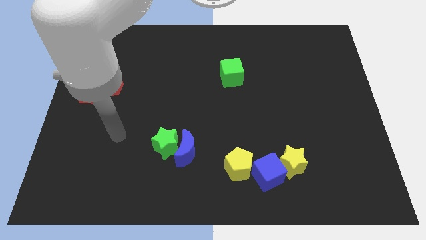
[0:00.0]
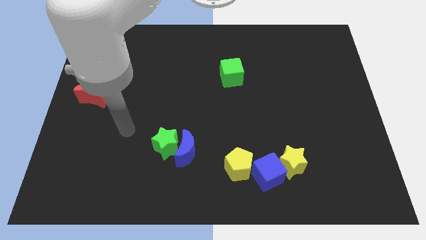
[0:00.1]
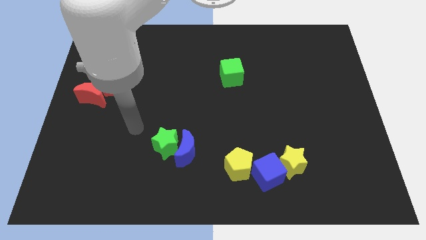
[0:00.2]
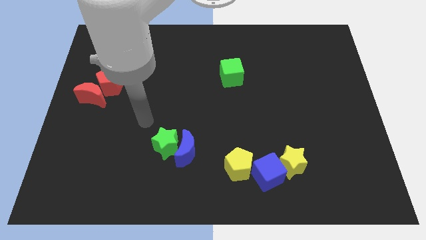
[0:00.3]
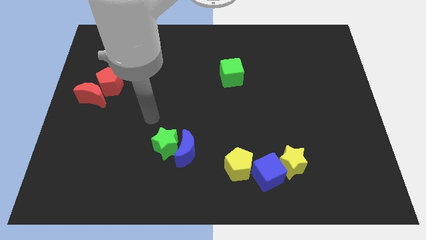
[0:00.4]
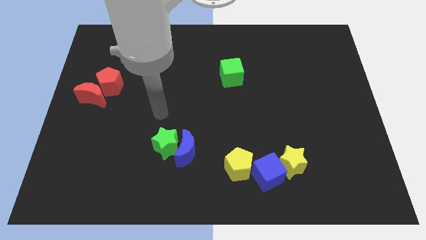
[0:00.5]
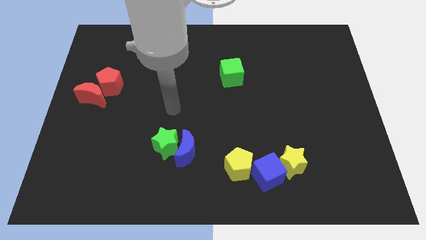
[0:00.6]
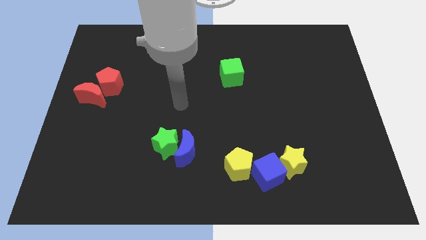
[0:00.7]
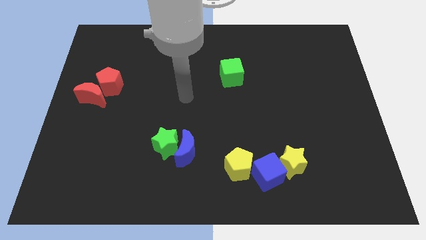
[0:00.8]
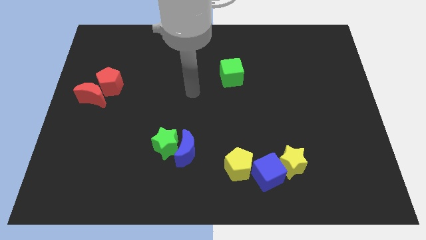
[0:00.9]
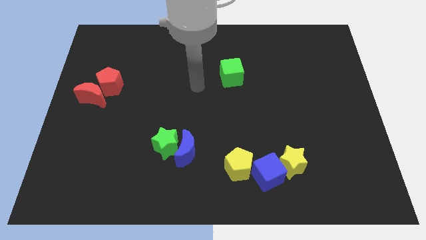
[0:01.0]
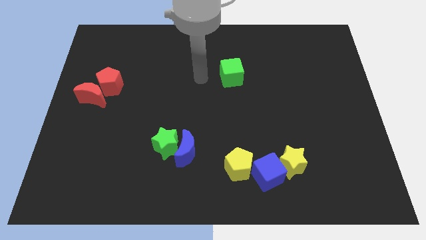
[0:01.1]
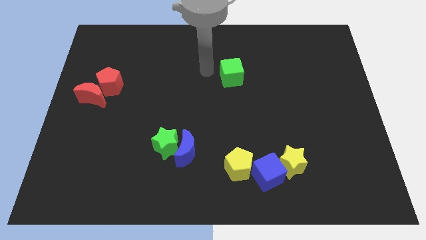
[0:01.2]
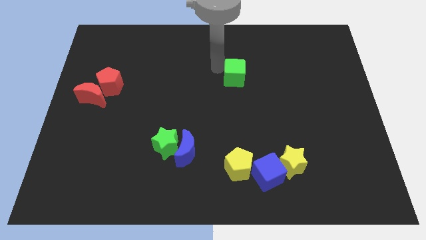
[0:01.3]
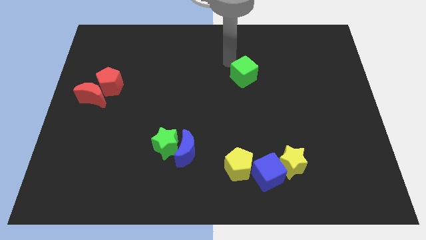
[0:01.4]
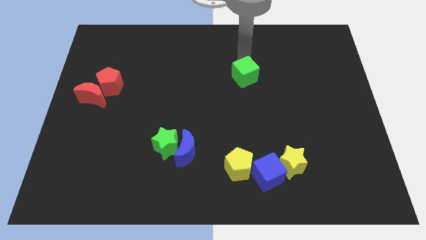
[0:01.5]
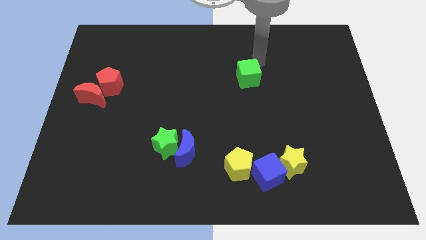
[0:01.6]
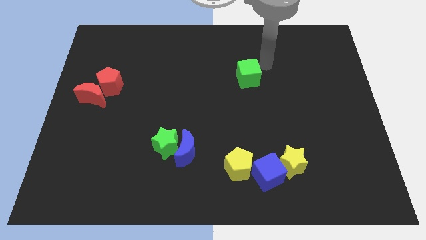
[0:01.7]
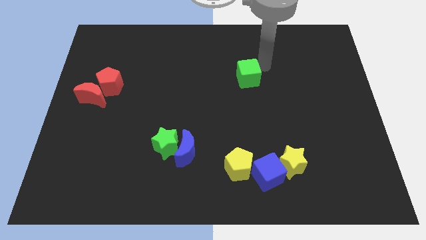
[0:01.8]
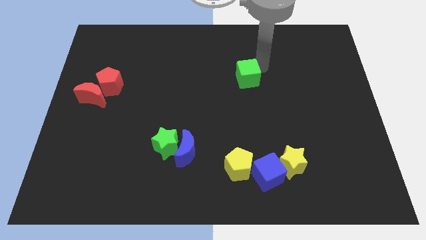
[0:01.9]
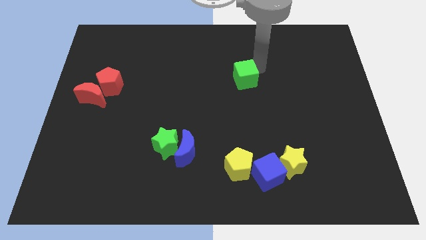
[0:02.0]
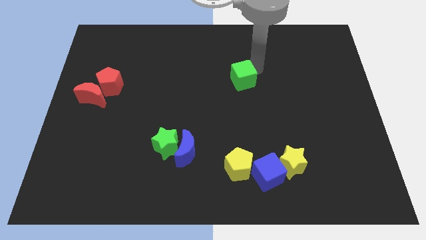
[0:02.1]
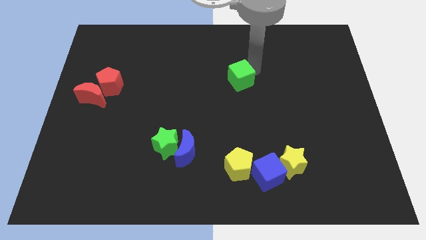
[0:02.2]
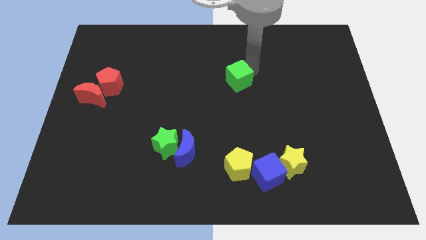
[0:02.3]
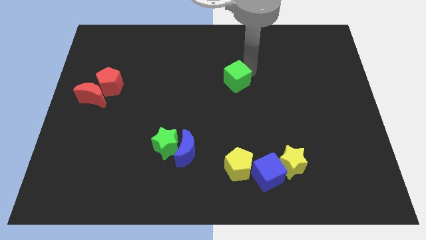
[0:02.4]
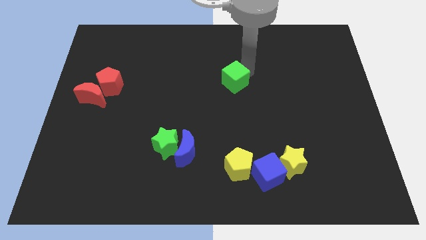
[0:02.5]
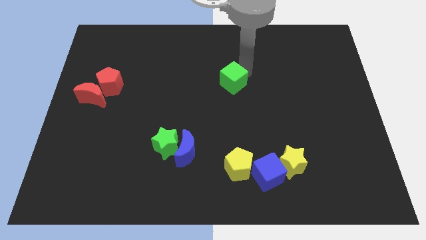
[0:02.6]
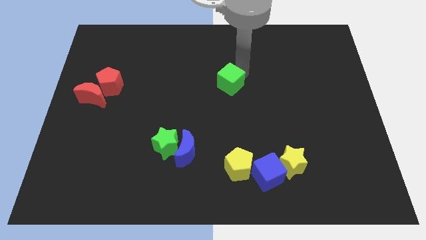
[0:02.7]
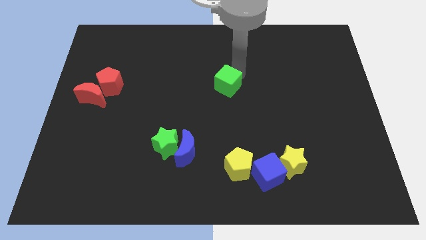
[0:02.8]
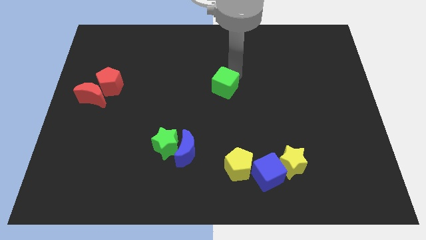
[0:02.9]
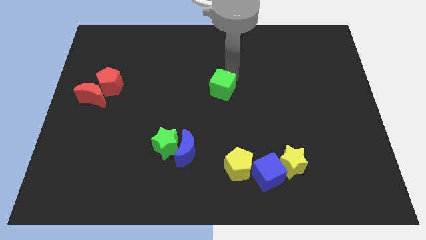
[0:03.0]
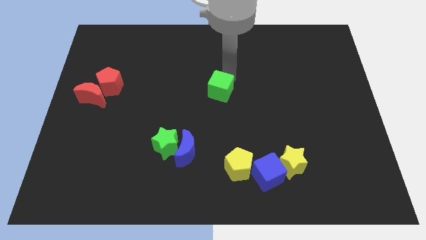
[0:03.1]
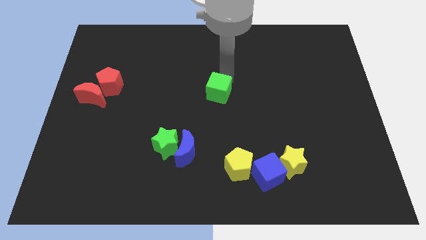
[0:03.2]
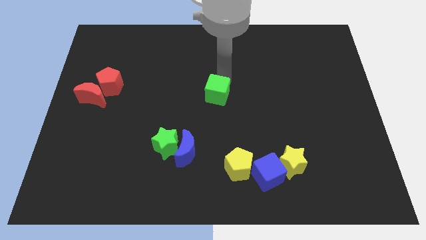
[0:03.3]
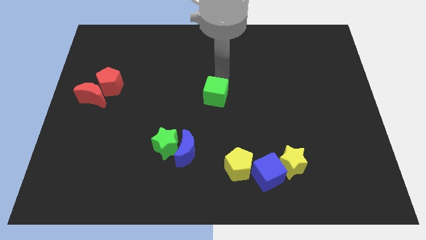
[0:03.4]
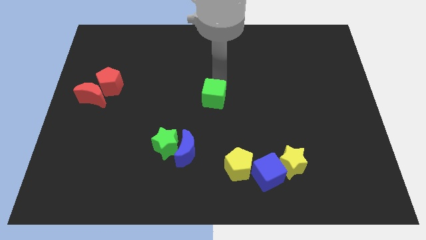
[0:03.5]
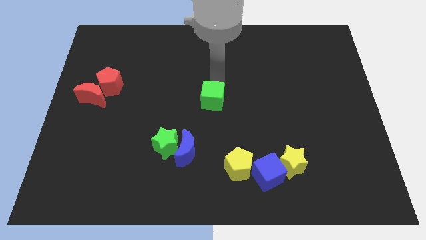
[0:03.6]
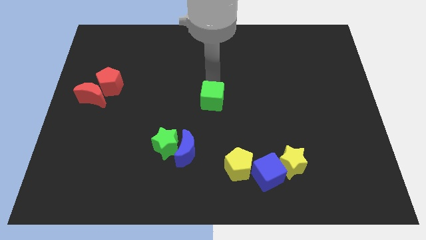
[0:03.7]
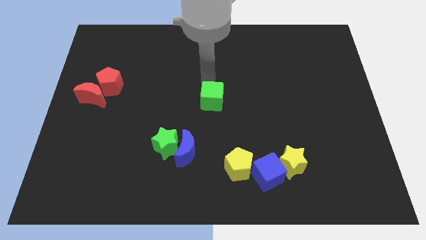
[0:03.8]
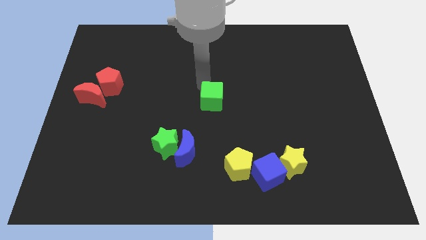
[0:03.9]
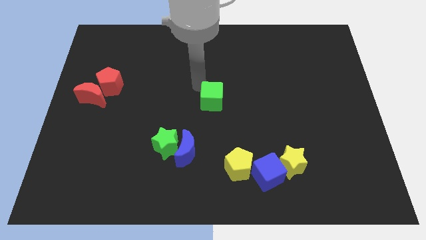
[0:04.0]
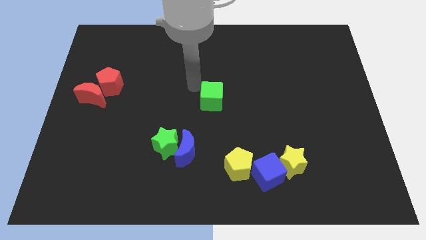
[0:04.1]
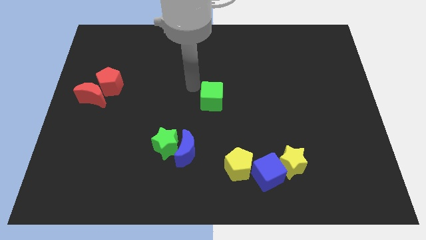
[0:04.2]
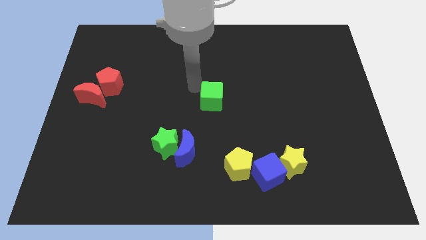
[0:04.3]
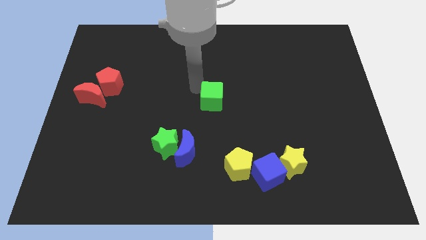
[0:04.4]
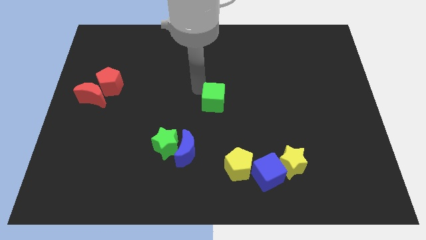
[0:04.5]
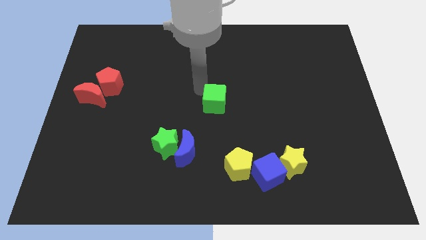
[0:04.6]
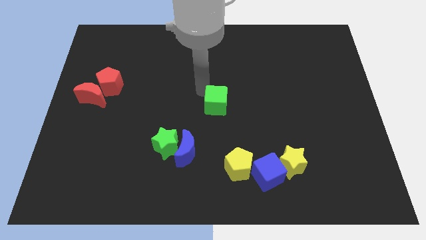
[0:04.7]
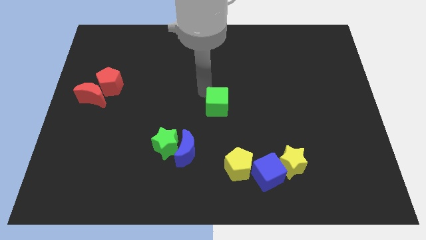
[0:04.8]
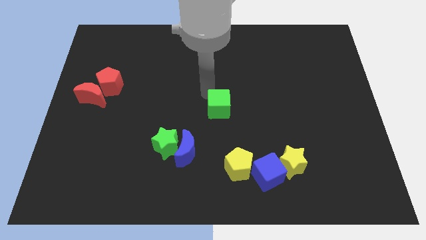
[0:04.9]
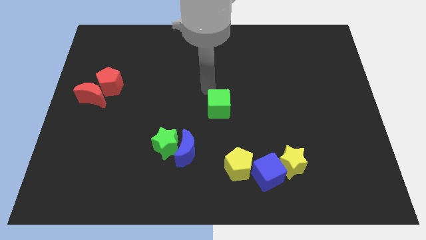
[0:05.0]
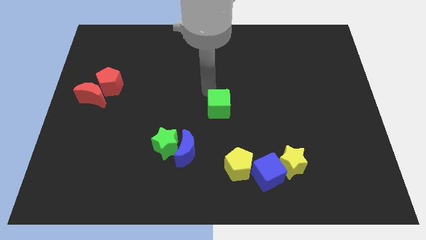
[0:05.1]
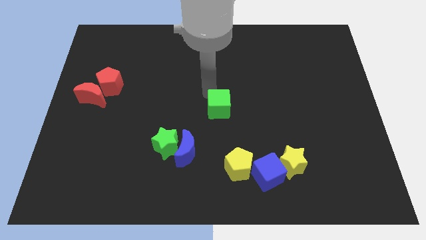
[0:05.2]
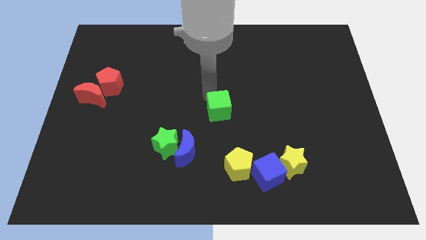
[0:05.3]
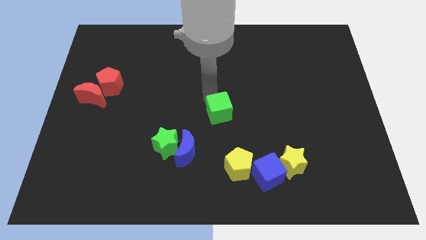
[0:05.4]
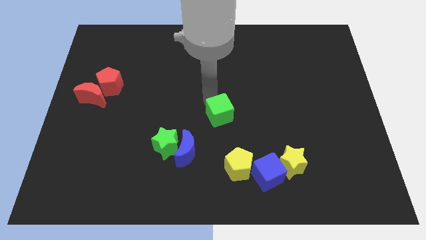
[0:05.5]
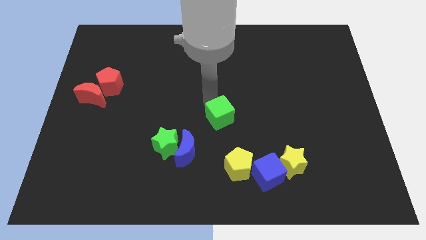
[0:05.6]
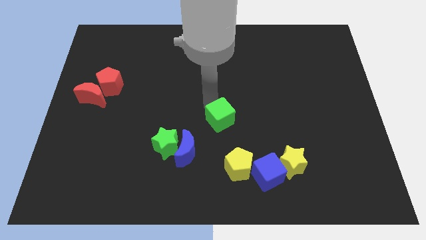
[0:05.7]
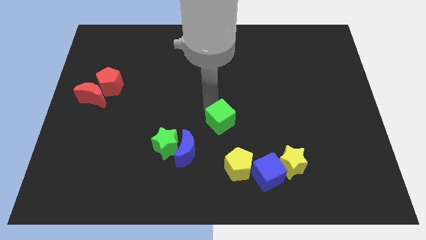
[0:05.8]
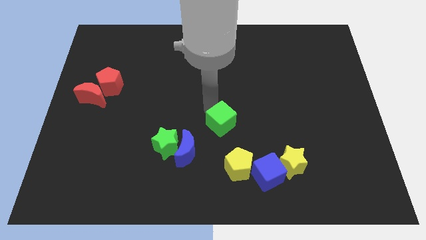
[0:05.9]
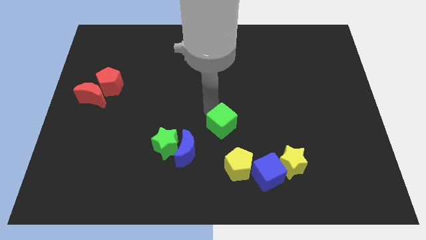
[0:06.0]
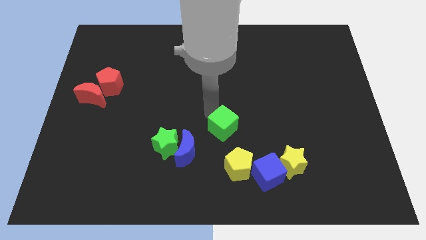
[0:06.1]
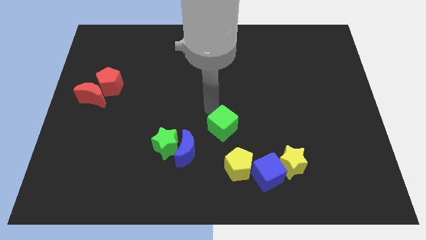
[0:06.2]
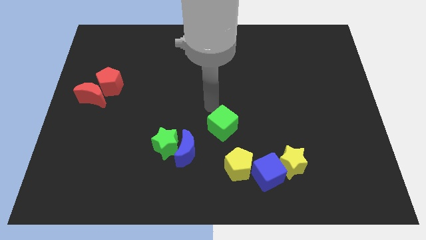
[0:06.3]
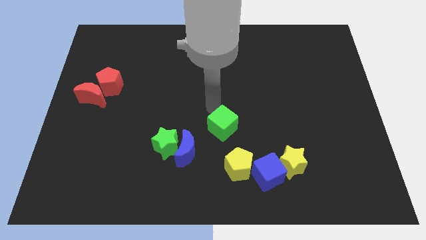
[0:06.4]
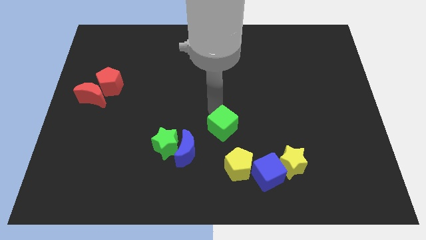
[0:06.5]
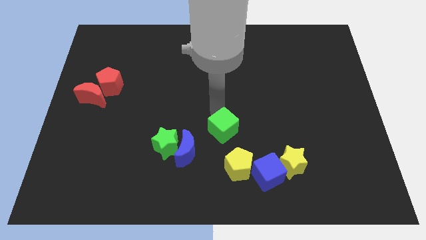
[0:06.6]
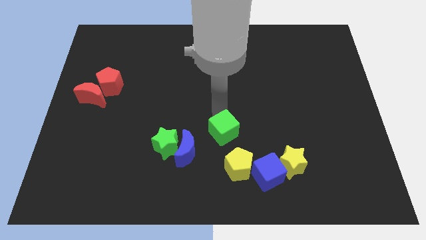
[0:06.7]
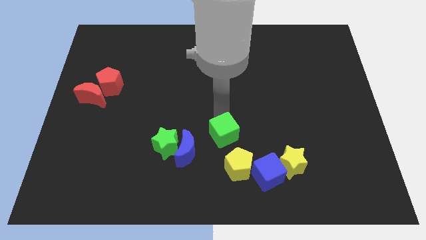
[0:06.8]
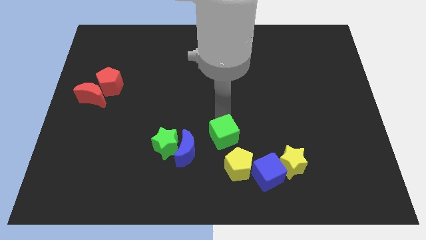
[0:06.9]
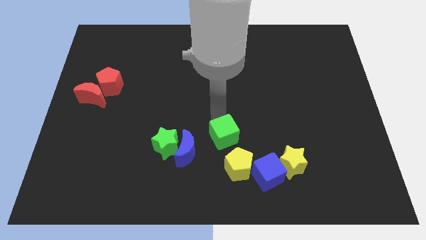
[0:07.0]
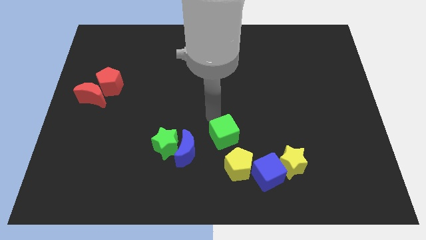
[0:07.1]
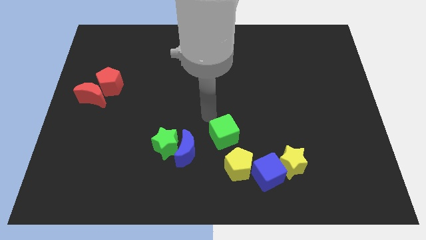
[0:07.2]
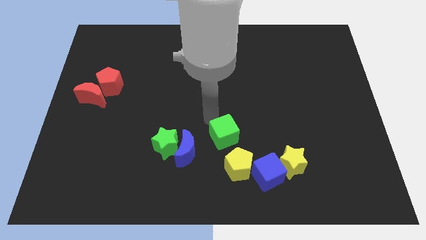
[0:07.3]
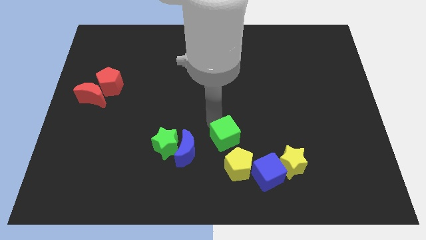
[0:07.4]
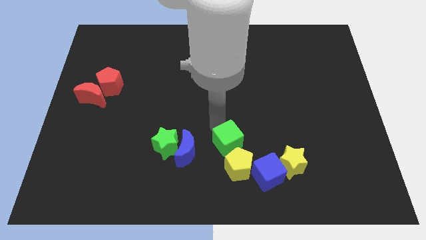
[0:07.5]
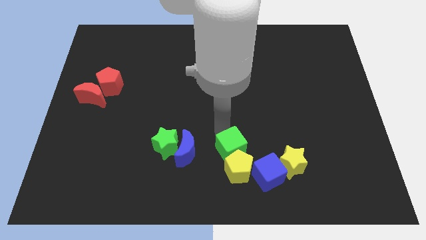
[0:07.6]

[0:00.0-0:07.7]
slide the green cube next to the yellow pentagon

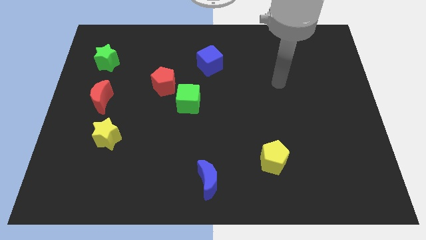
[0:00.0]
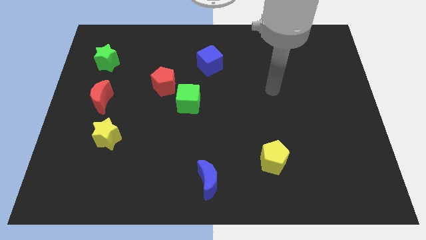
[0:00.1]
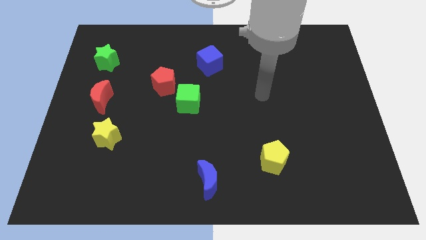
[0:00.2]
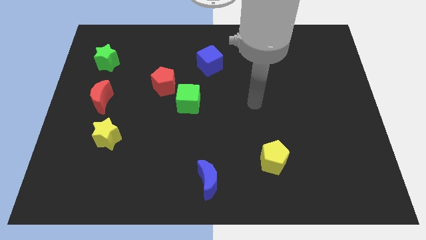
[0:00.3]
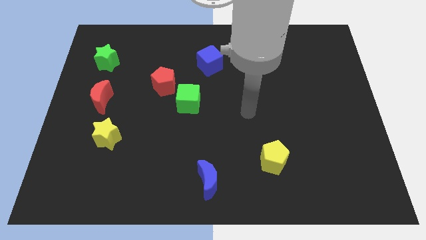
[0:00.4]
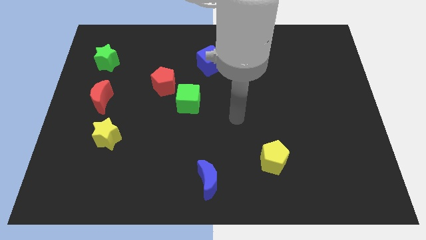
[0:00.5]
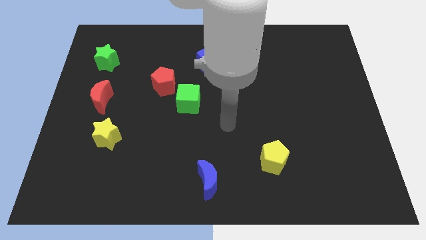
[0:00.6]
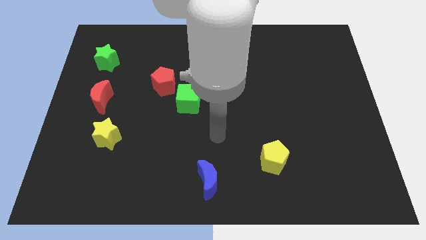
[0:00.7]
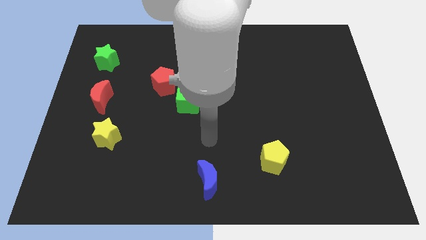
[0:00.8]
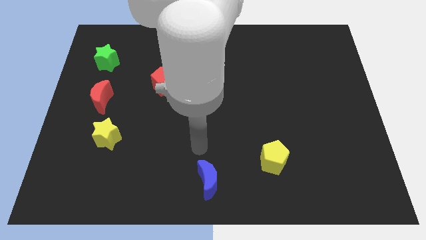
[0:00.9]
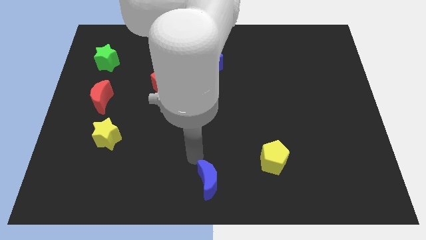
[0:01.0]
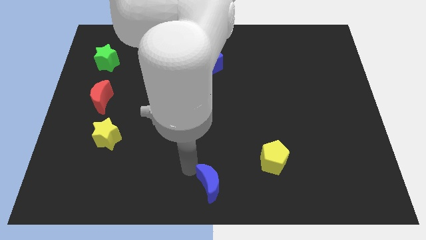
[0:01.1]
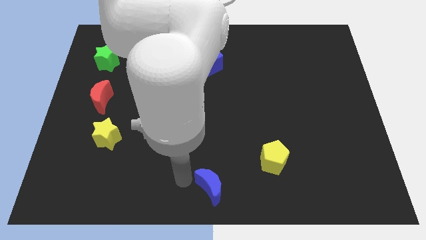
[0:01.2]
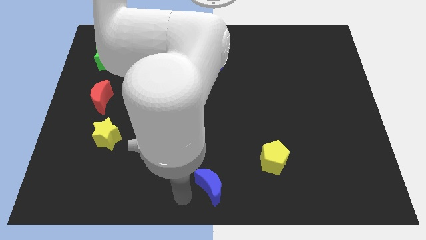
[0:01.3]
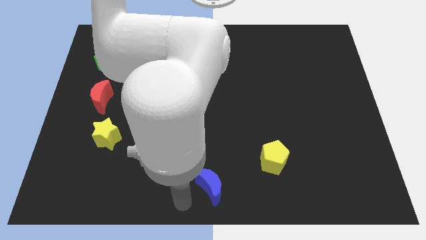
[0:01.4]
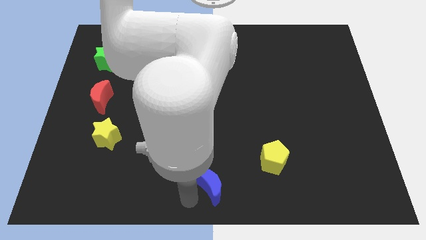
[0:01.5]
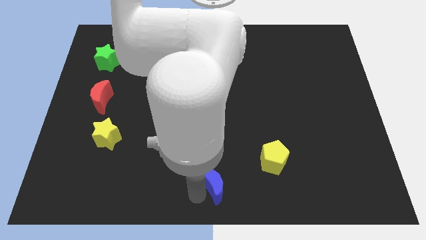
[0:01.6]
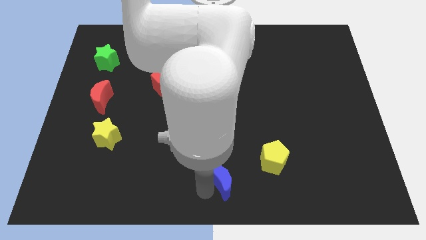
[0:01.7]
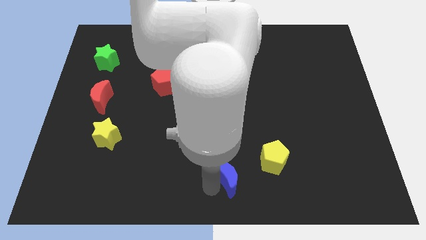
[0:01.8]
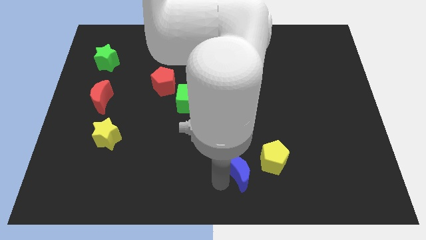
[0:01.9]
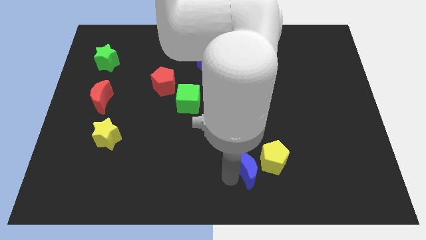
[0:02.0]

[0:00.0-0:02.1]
push the blue moon next to the yellow pentagon
